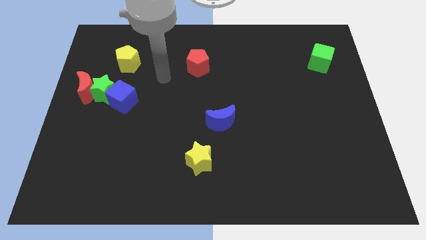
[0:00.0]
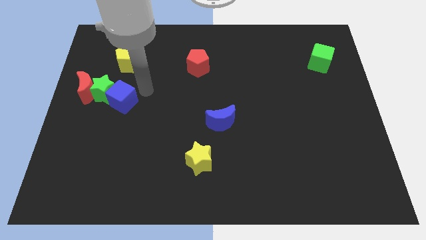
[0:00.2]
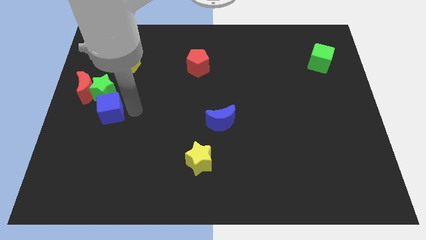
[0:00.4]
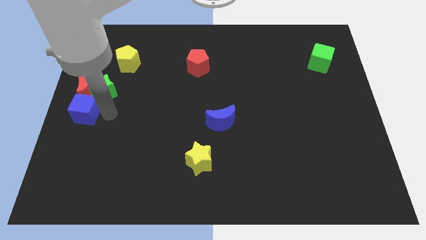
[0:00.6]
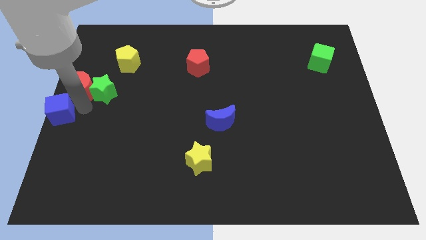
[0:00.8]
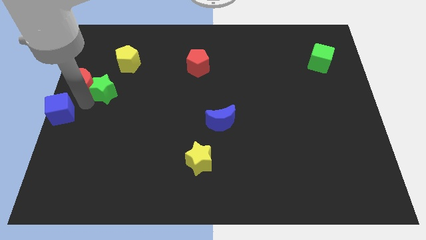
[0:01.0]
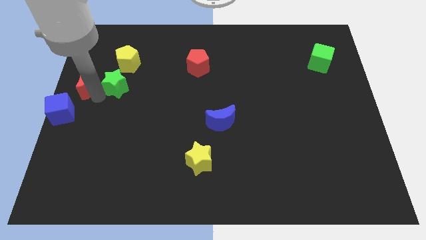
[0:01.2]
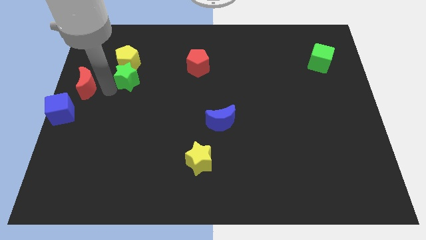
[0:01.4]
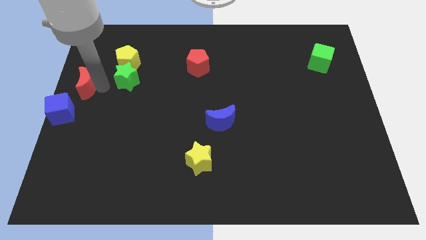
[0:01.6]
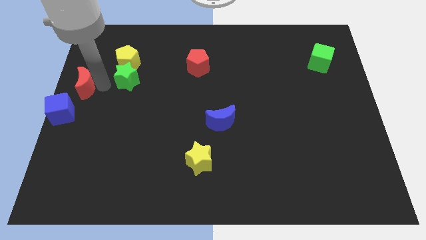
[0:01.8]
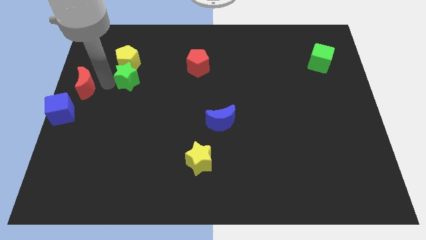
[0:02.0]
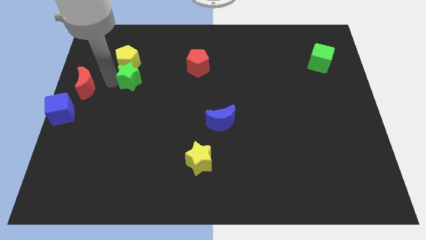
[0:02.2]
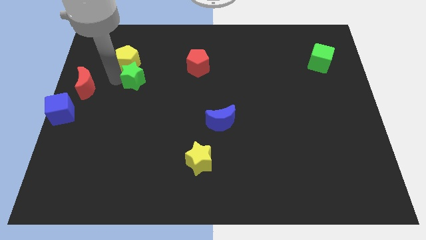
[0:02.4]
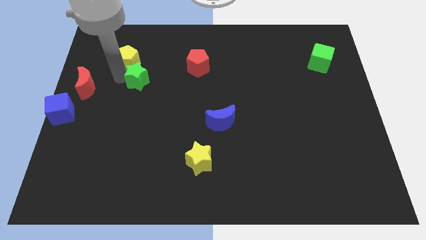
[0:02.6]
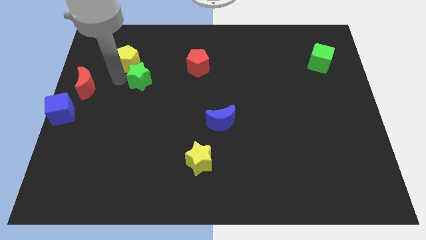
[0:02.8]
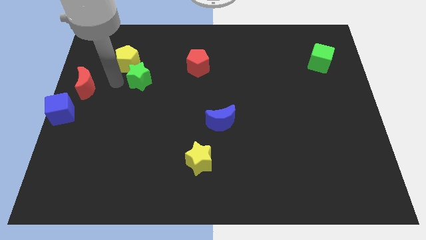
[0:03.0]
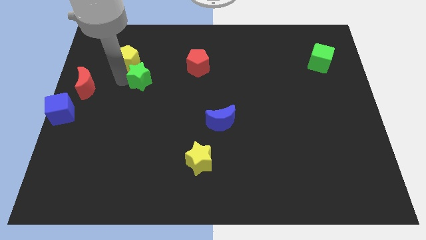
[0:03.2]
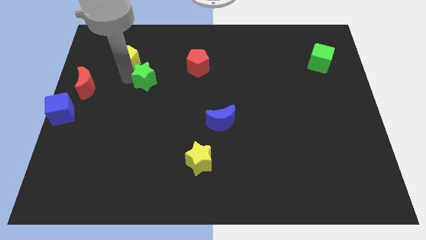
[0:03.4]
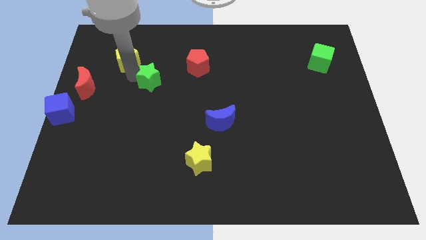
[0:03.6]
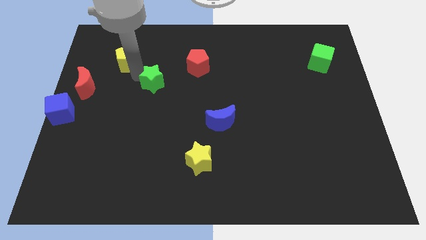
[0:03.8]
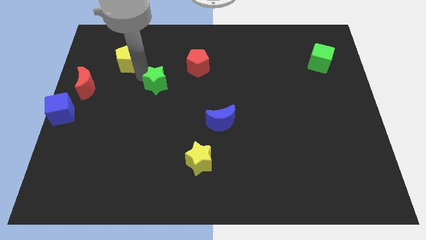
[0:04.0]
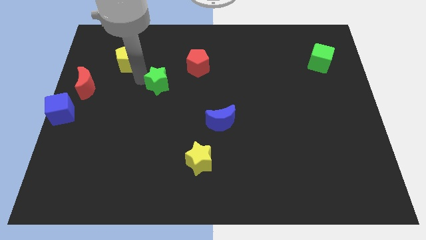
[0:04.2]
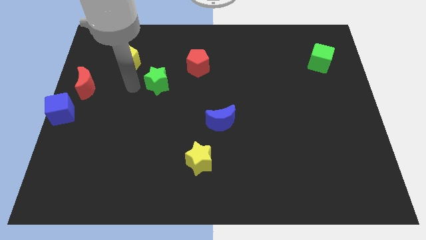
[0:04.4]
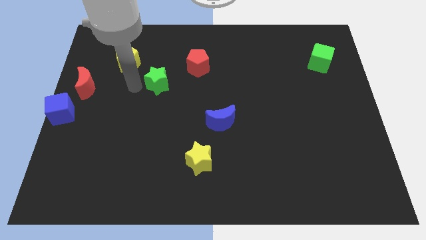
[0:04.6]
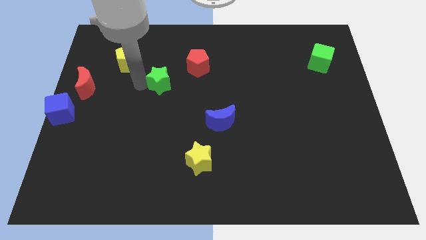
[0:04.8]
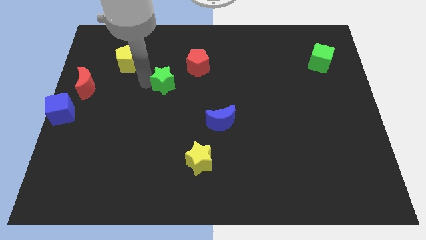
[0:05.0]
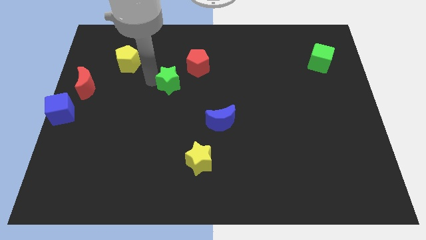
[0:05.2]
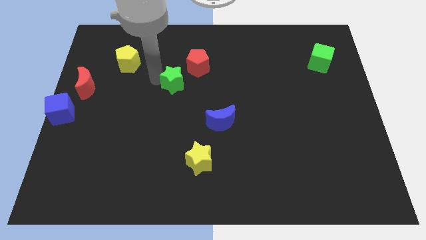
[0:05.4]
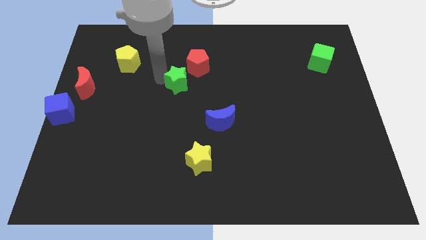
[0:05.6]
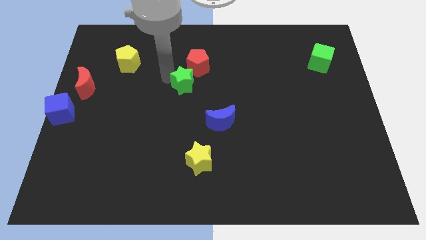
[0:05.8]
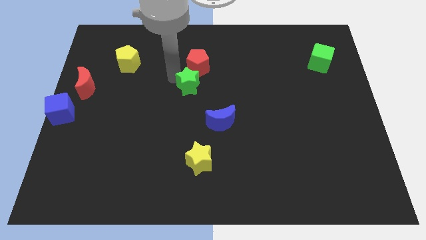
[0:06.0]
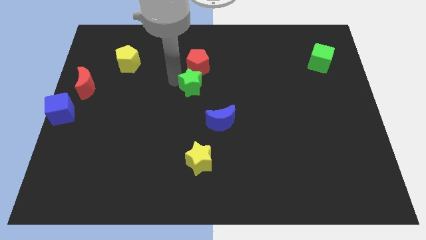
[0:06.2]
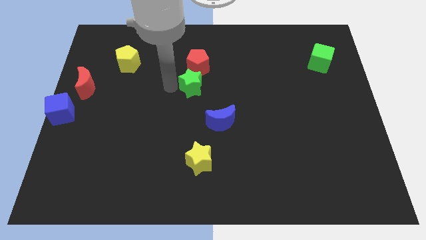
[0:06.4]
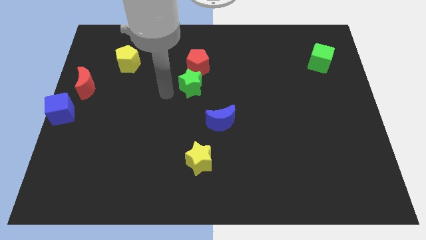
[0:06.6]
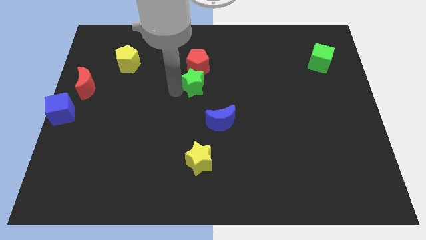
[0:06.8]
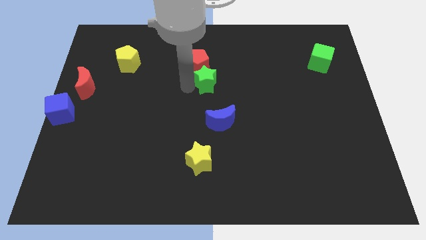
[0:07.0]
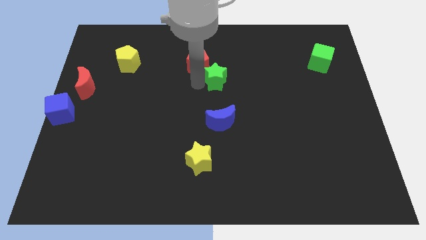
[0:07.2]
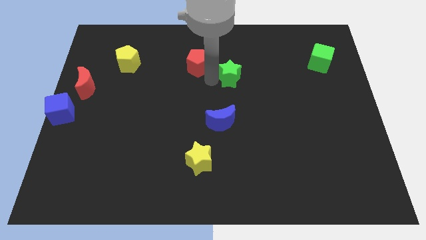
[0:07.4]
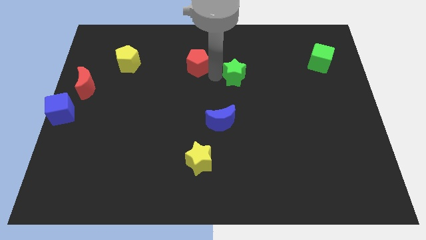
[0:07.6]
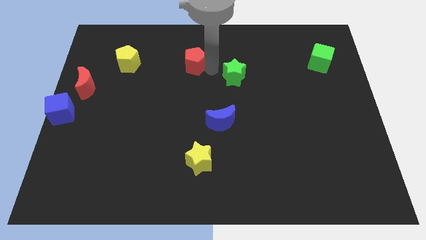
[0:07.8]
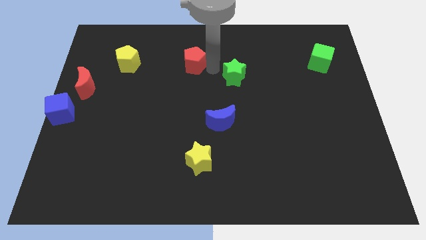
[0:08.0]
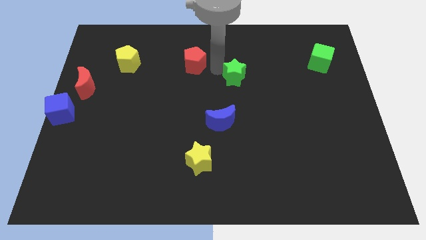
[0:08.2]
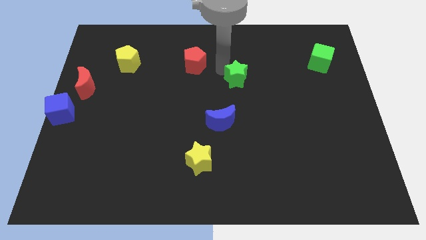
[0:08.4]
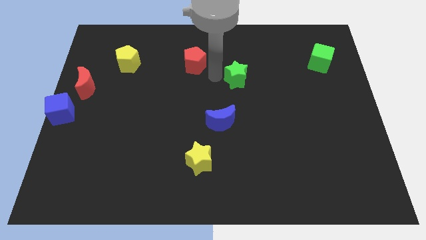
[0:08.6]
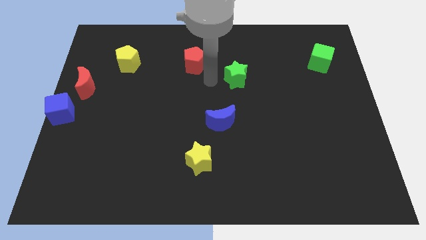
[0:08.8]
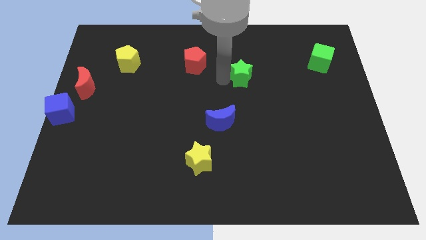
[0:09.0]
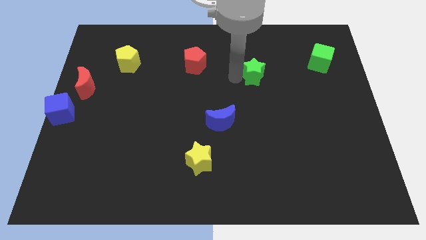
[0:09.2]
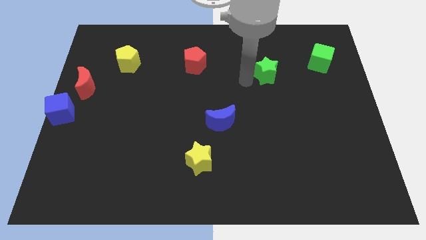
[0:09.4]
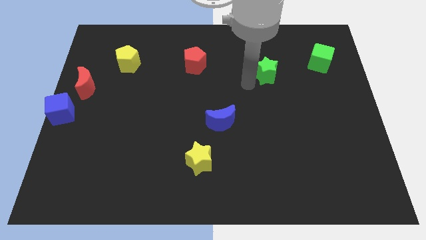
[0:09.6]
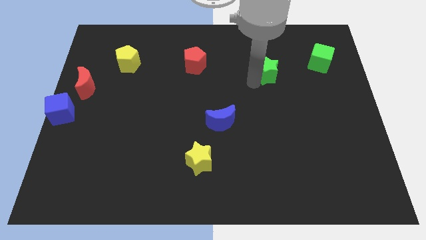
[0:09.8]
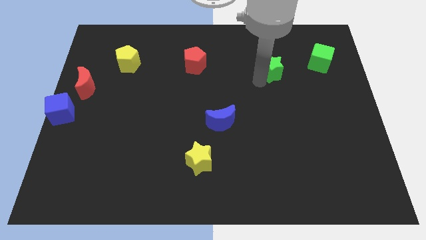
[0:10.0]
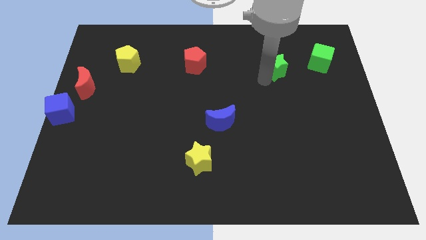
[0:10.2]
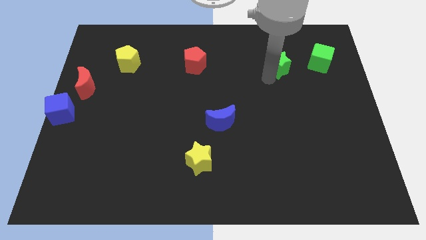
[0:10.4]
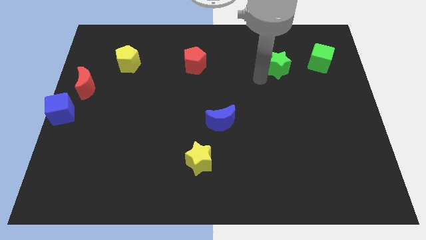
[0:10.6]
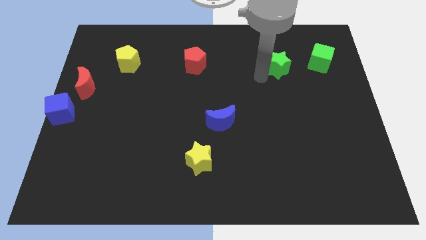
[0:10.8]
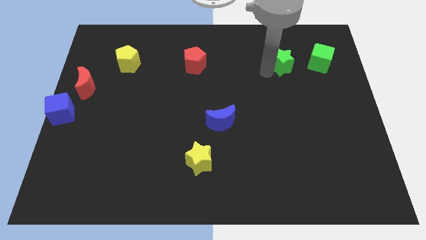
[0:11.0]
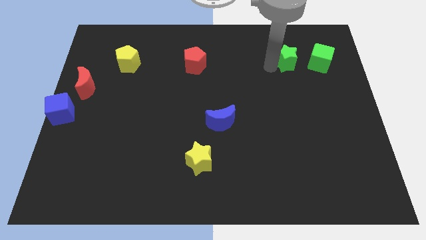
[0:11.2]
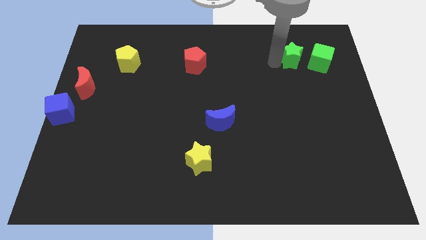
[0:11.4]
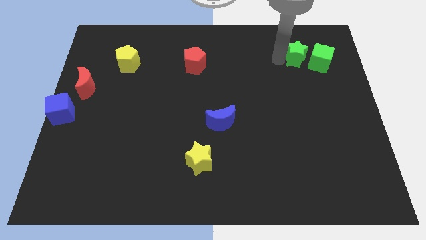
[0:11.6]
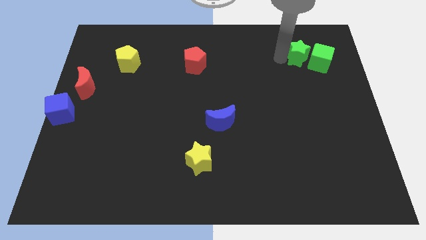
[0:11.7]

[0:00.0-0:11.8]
move the green star to the green cube

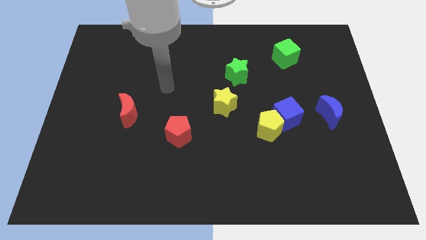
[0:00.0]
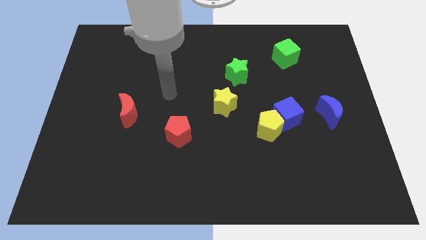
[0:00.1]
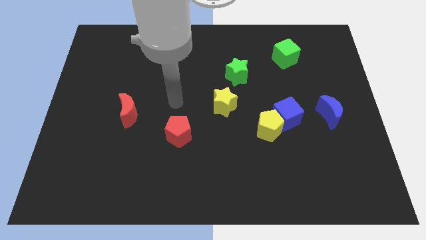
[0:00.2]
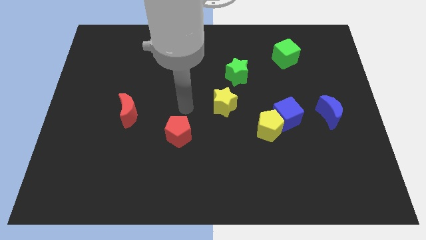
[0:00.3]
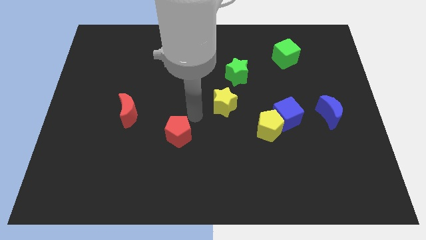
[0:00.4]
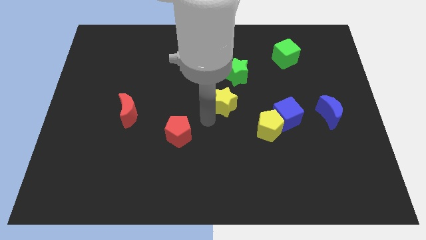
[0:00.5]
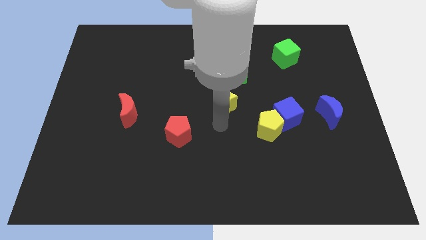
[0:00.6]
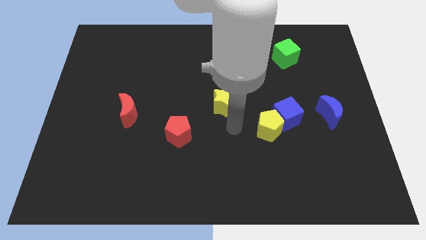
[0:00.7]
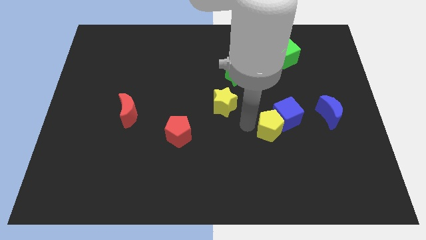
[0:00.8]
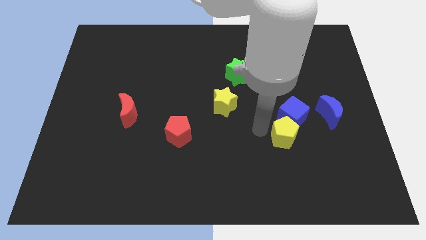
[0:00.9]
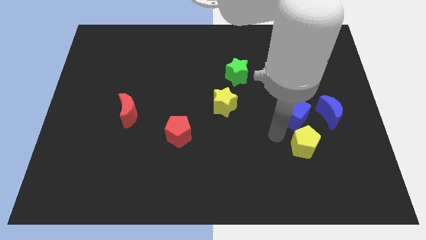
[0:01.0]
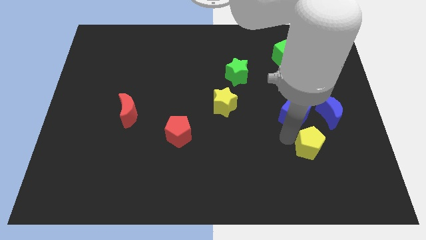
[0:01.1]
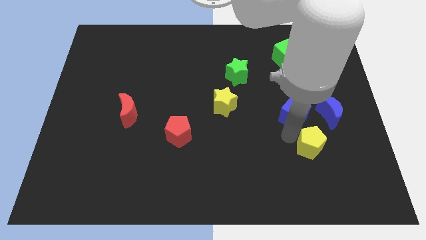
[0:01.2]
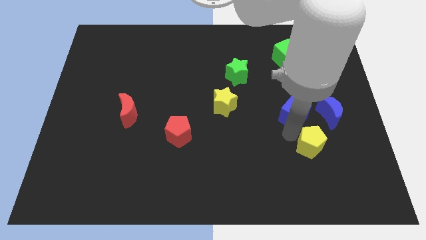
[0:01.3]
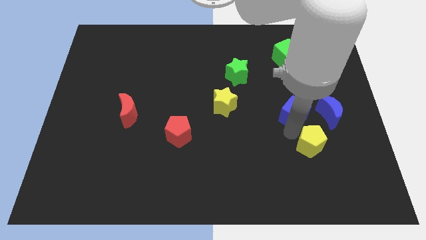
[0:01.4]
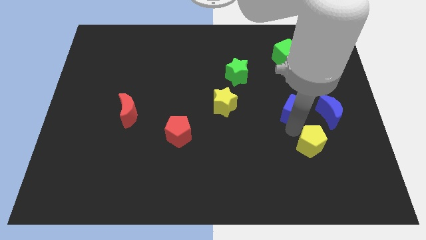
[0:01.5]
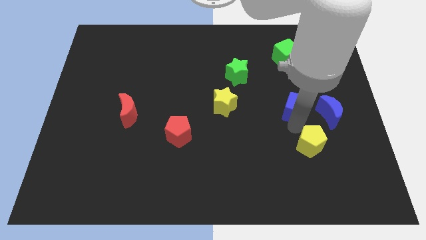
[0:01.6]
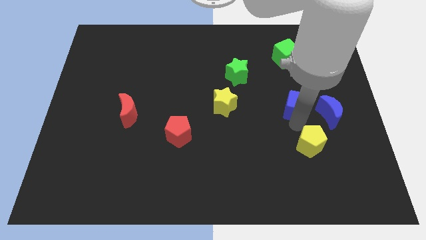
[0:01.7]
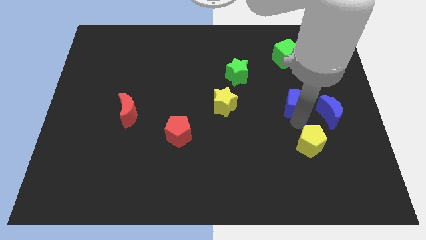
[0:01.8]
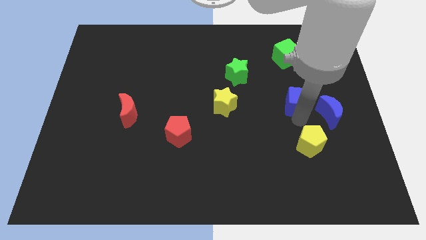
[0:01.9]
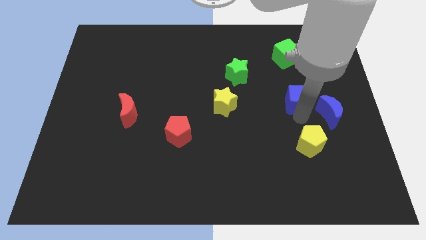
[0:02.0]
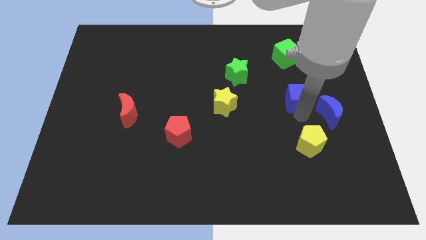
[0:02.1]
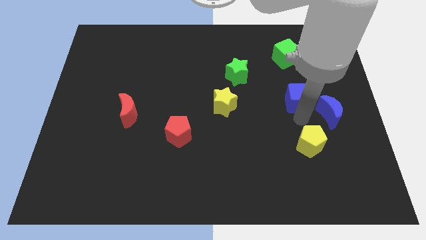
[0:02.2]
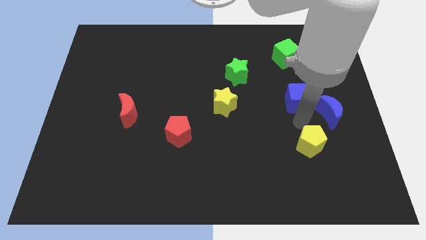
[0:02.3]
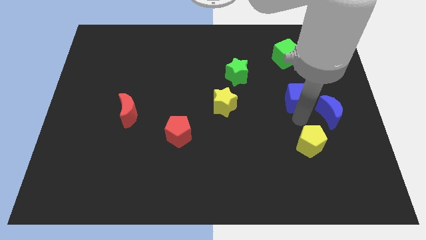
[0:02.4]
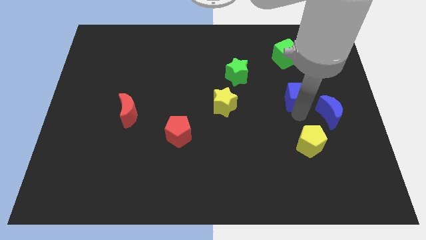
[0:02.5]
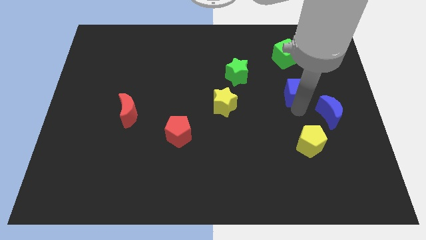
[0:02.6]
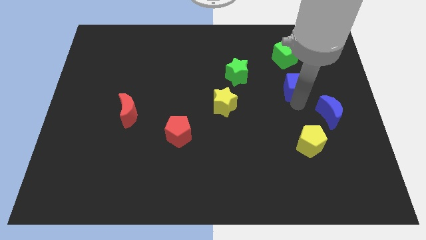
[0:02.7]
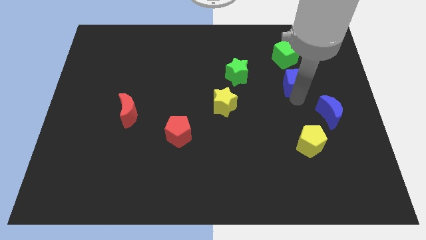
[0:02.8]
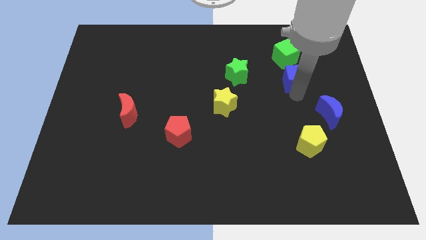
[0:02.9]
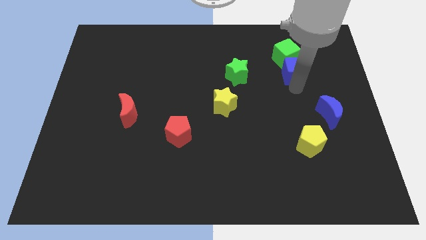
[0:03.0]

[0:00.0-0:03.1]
move the blue cube next to the green cube
